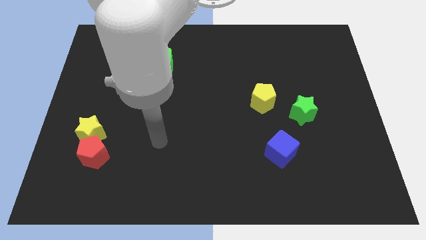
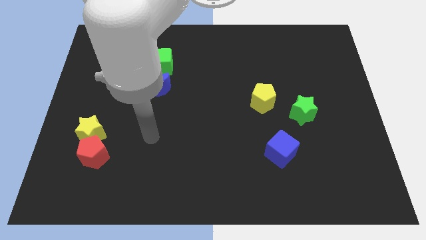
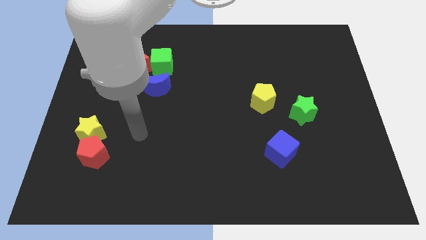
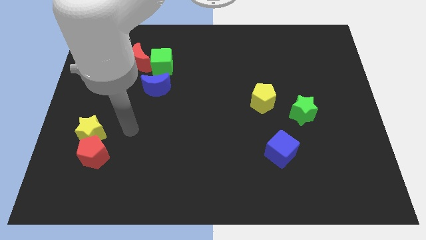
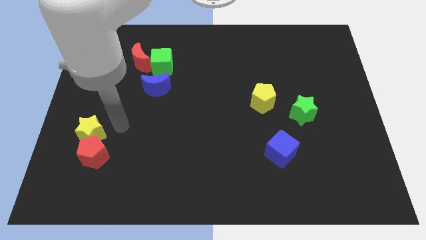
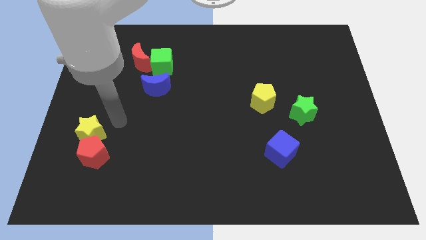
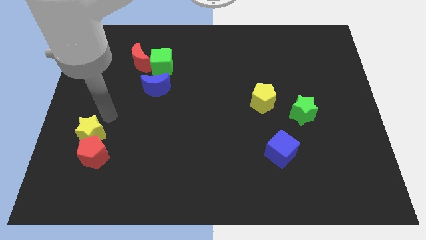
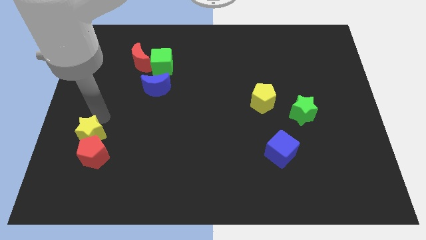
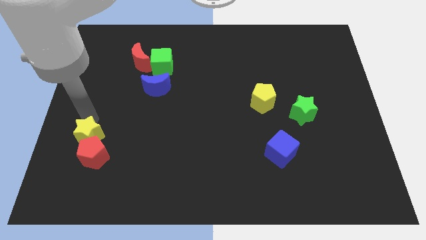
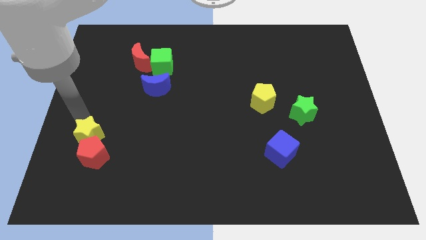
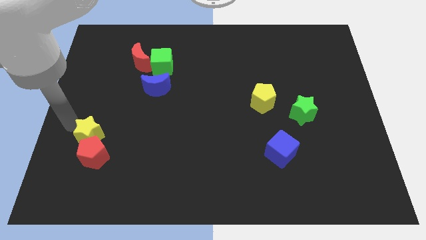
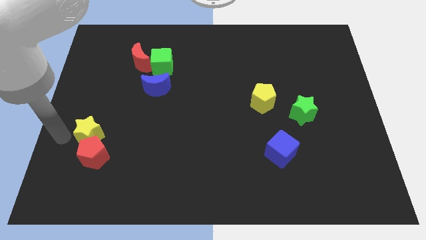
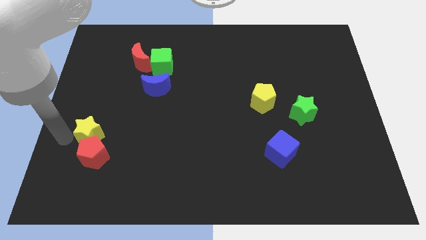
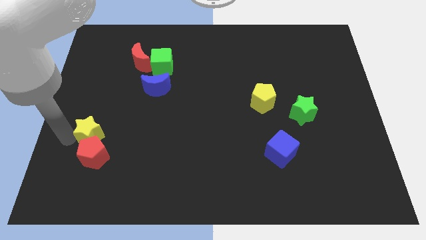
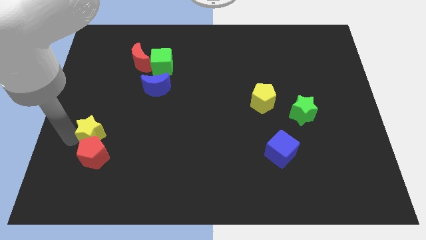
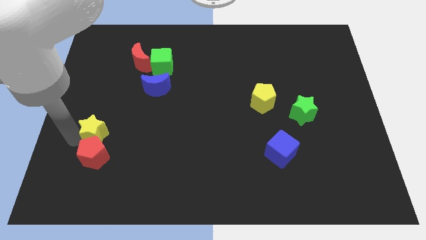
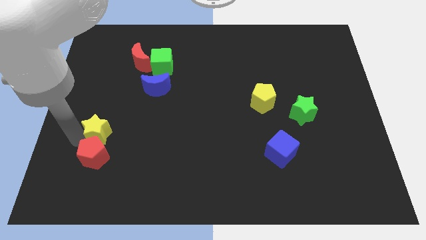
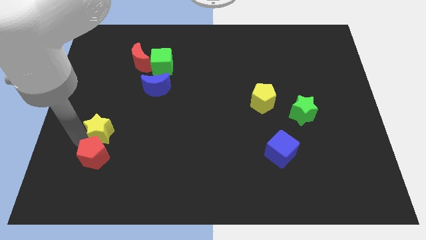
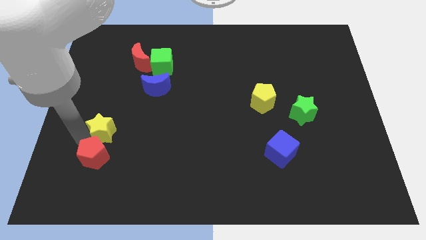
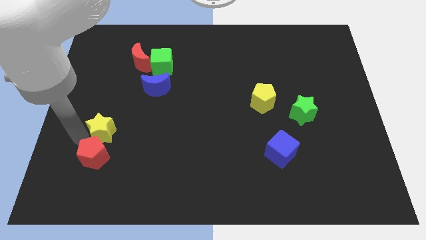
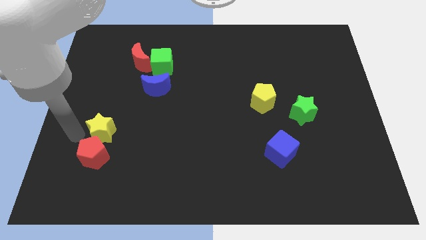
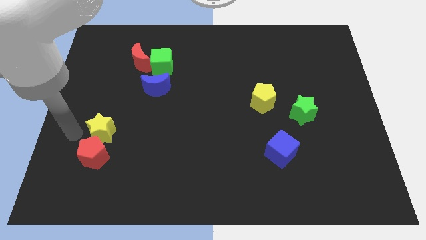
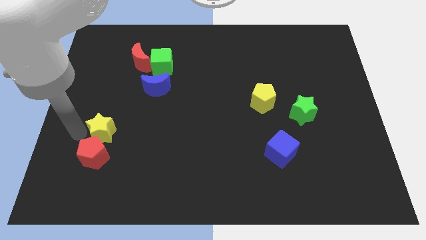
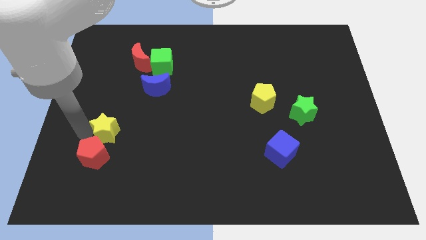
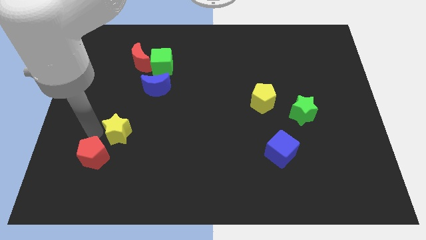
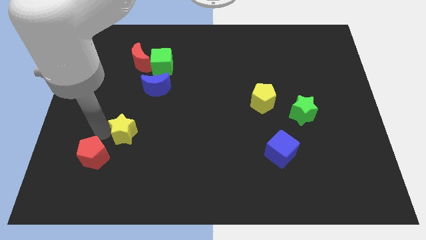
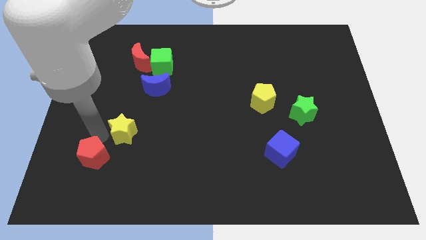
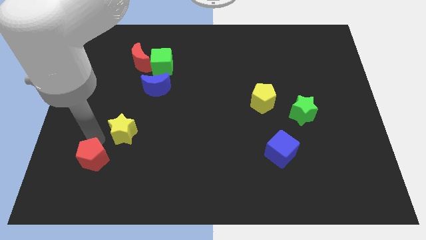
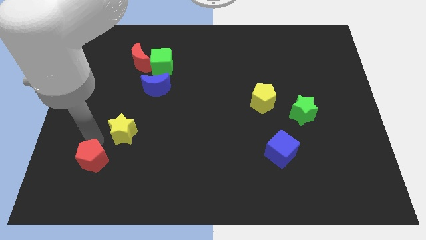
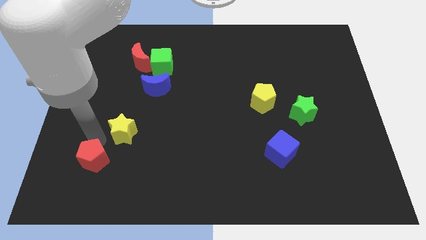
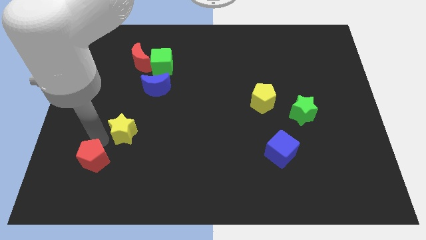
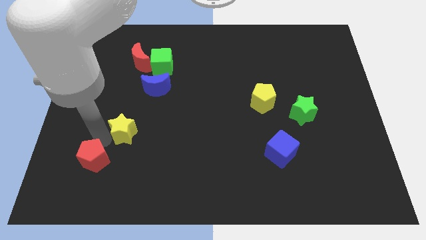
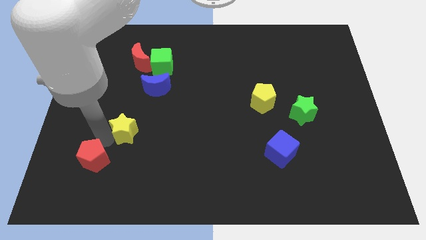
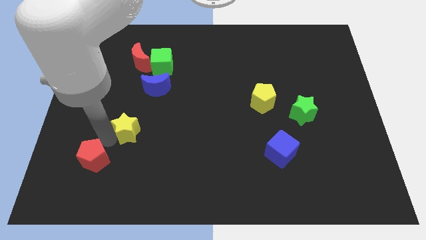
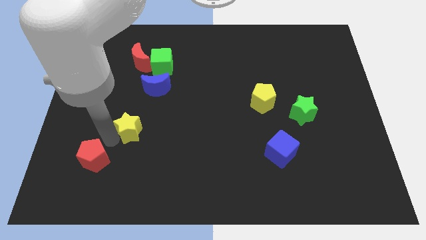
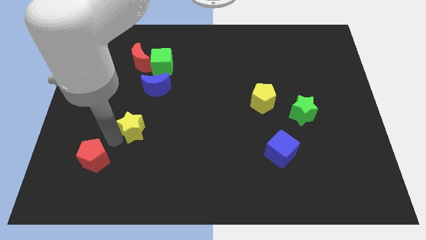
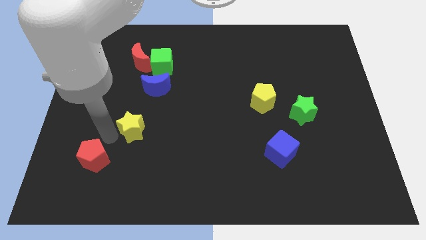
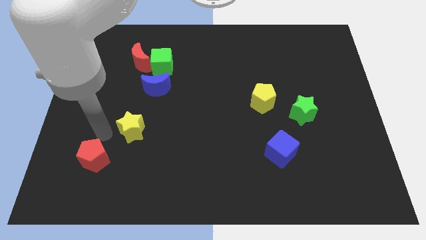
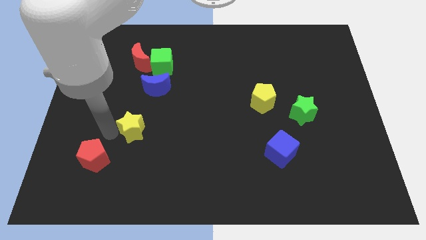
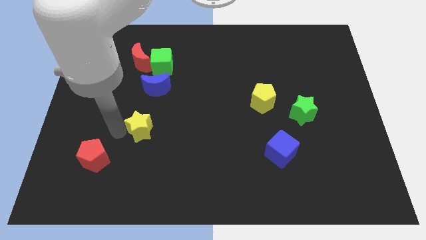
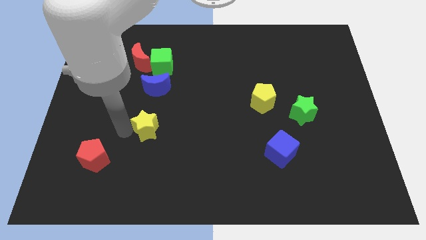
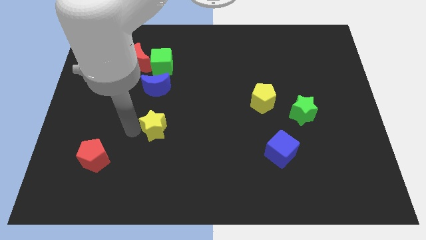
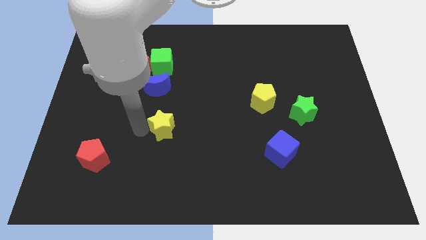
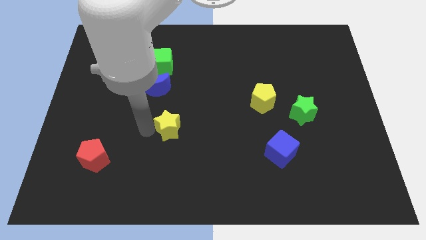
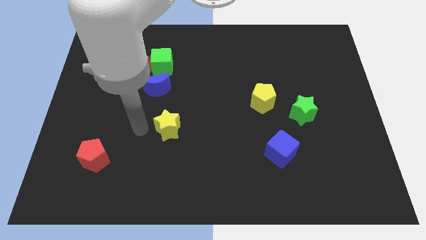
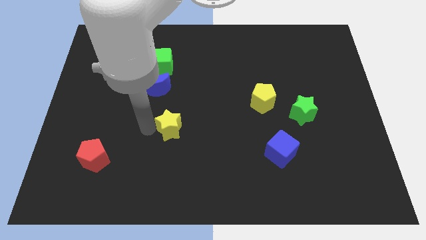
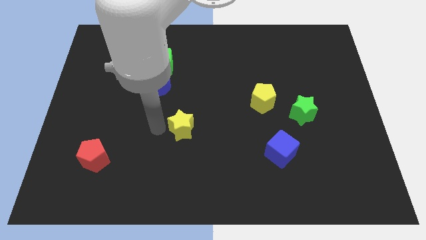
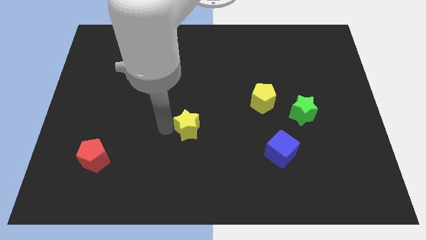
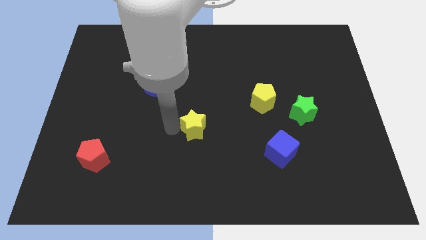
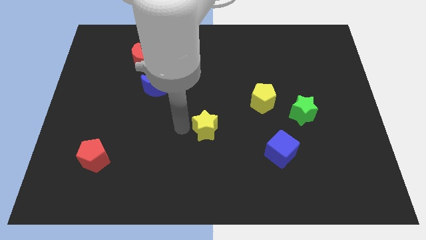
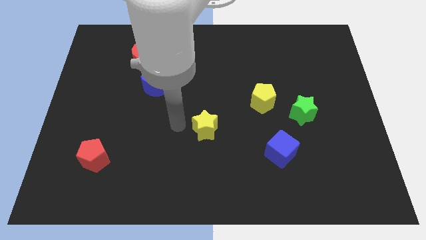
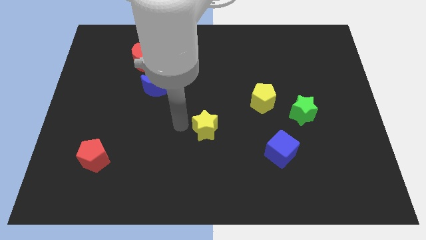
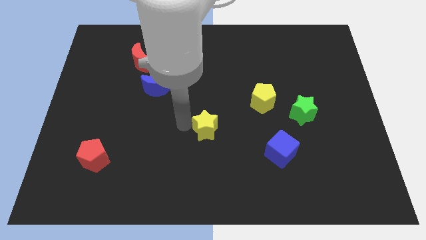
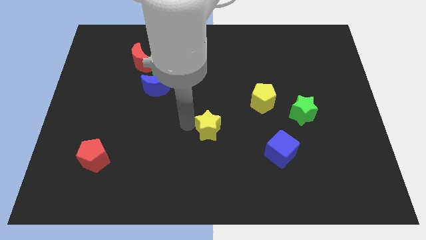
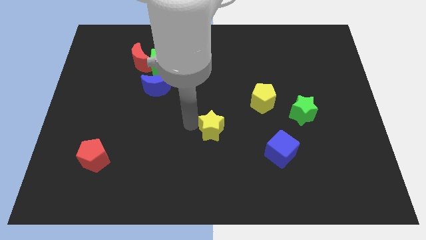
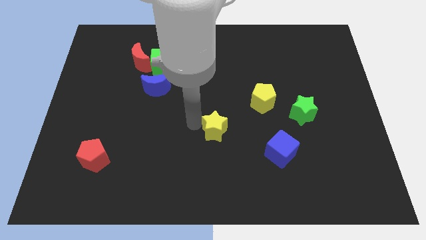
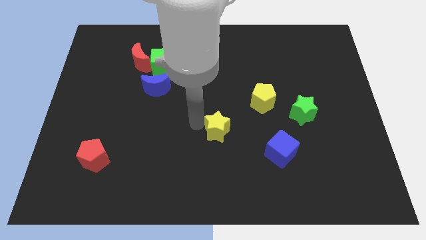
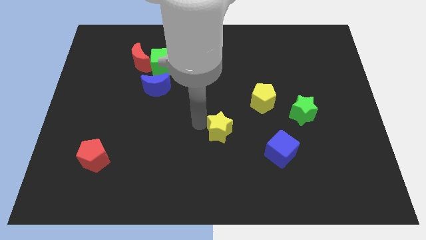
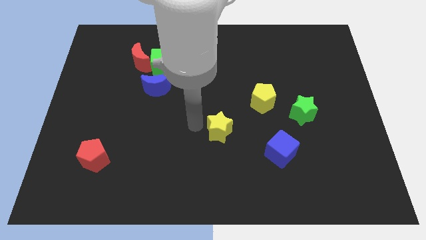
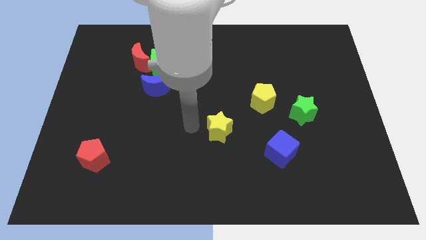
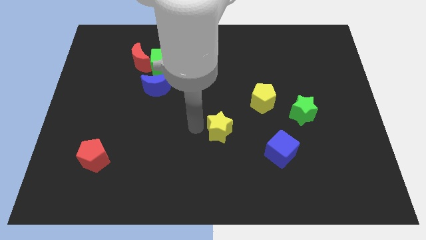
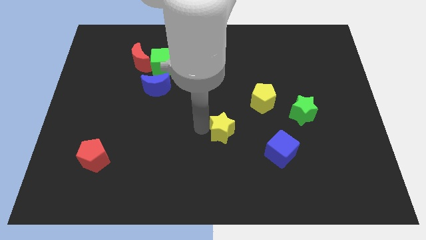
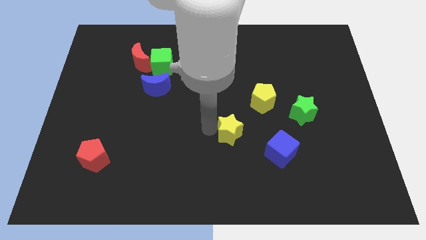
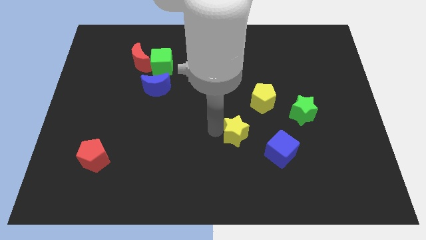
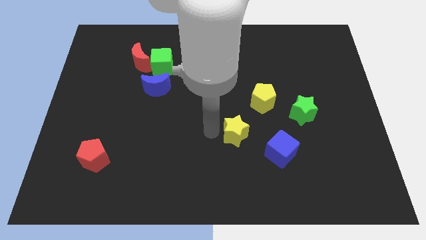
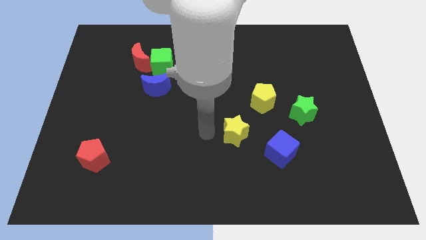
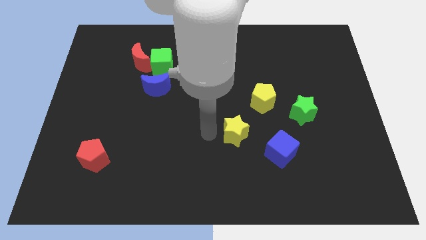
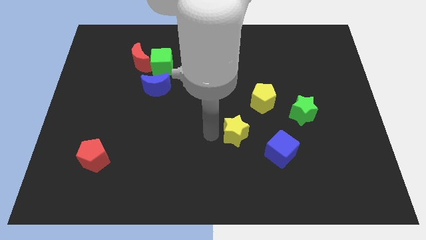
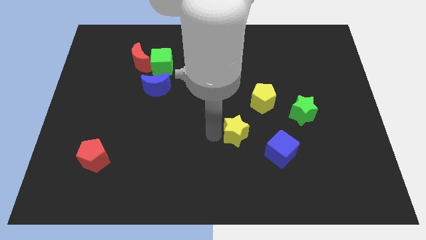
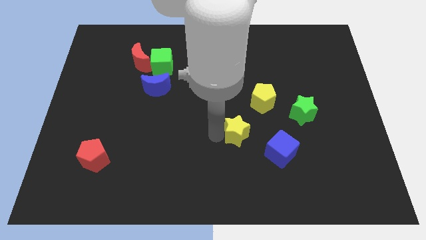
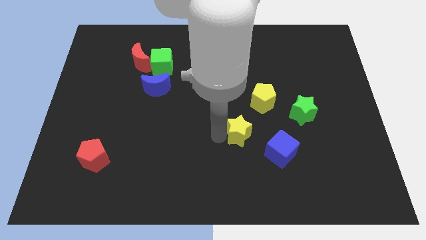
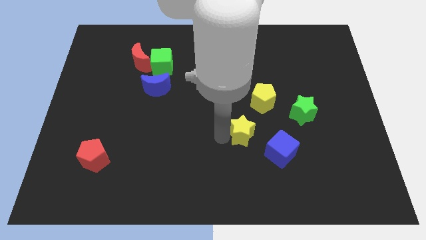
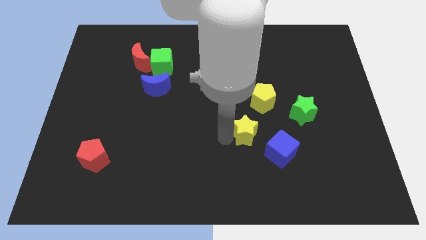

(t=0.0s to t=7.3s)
slide the yellow star to the bottom of the yellow pentagon

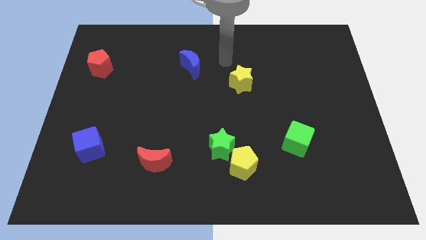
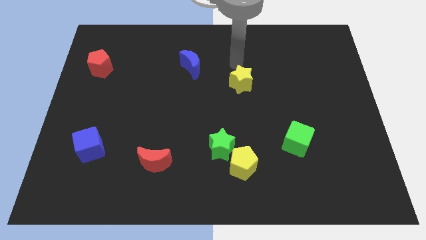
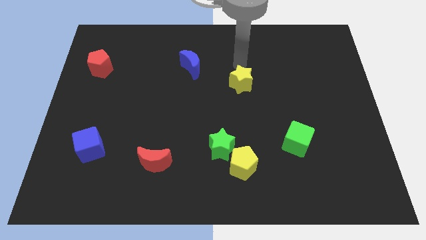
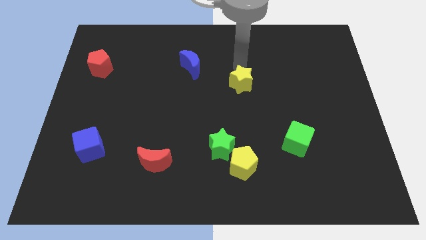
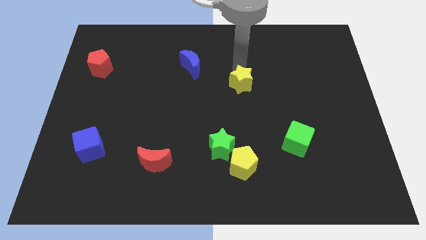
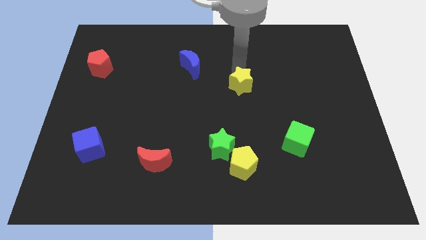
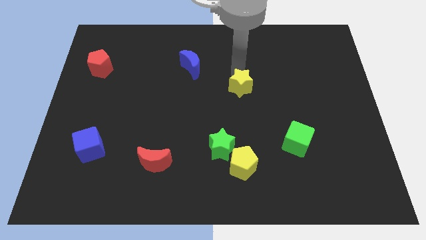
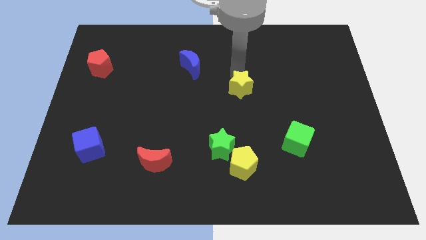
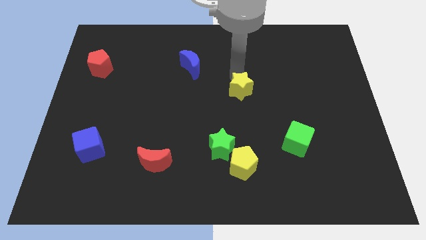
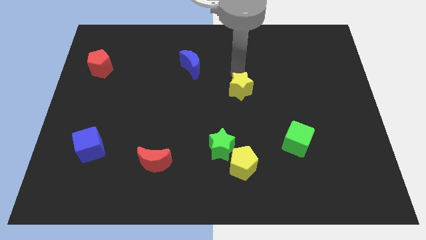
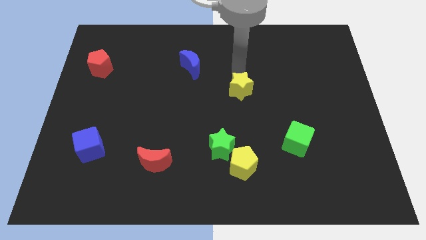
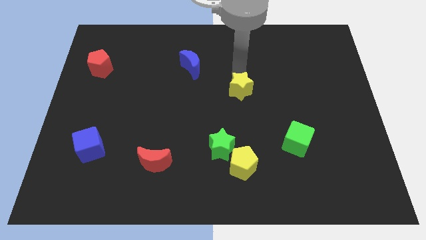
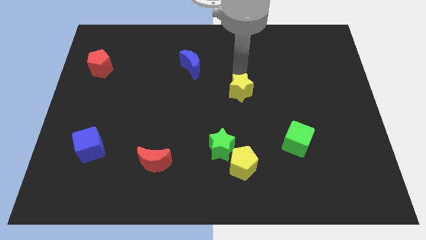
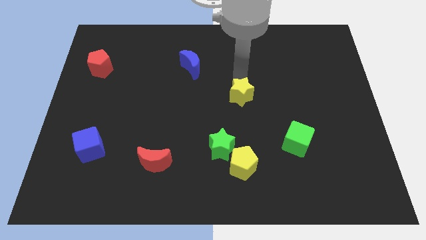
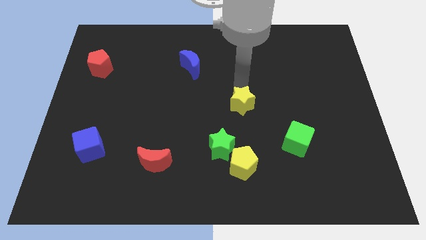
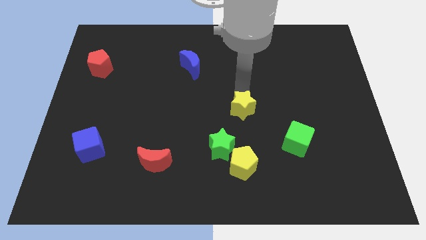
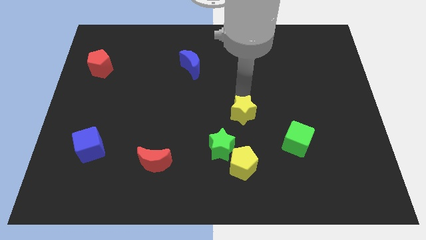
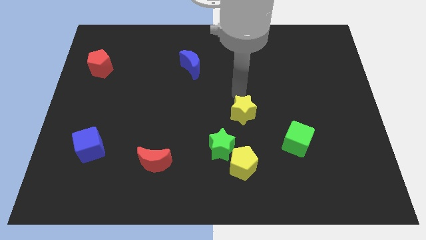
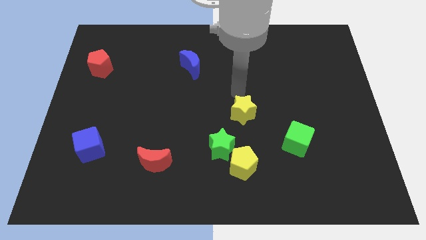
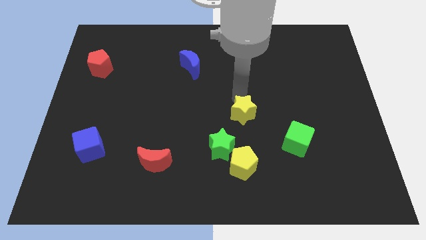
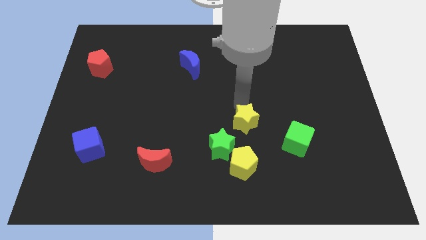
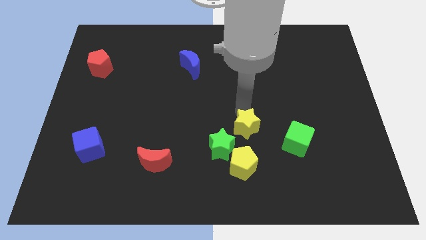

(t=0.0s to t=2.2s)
push the yellow star to the left of the green cube
